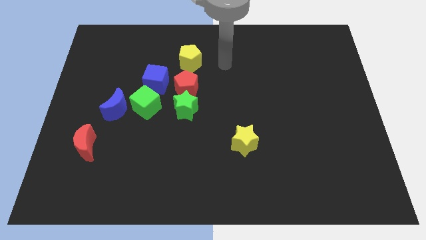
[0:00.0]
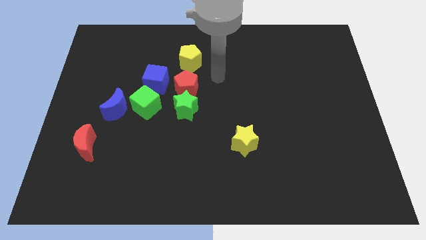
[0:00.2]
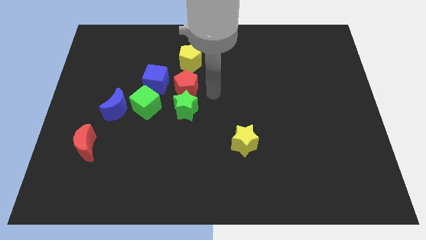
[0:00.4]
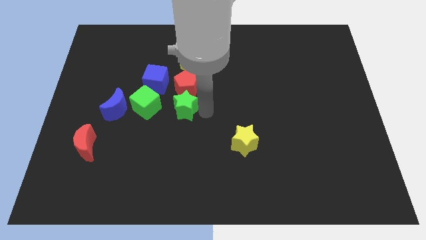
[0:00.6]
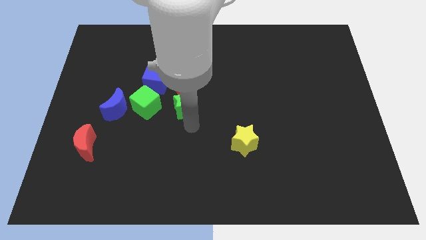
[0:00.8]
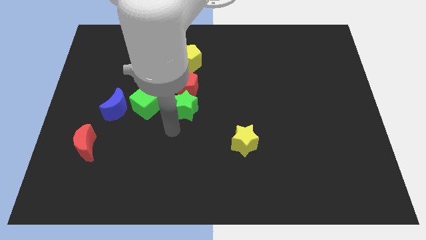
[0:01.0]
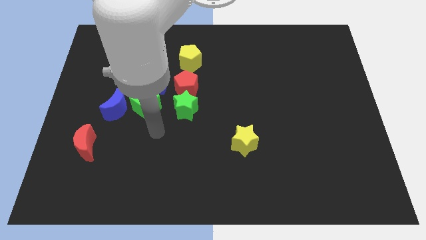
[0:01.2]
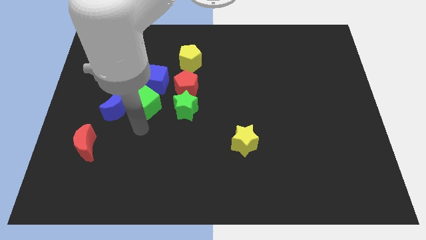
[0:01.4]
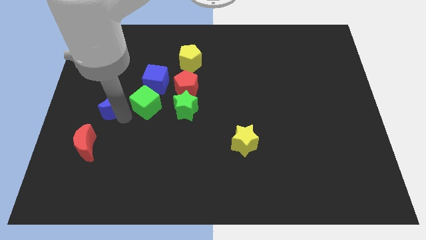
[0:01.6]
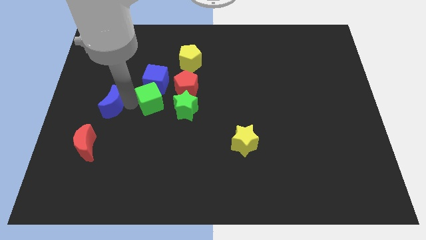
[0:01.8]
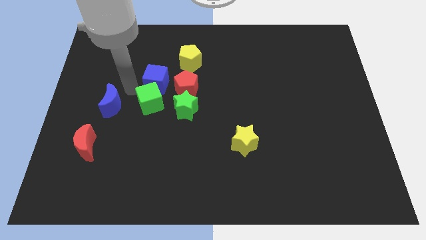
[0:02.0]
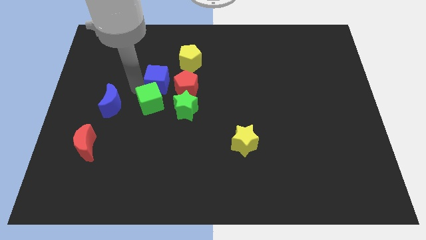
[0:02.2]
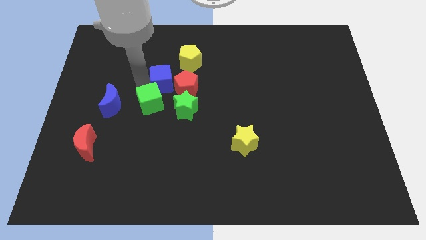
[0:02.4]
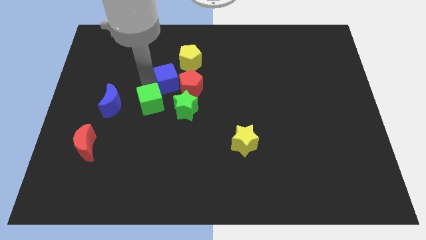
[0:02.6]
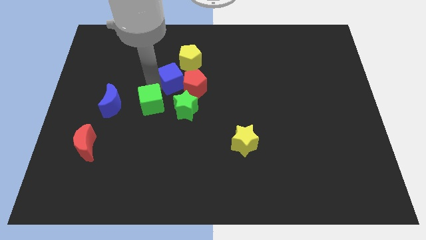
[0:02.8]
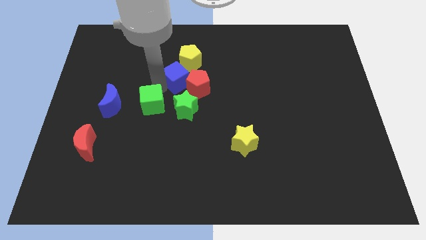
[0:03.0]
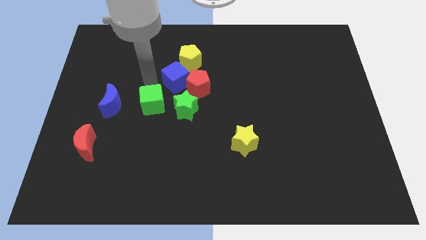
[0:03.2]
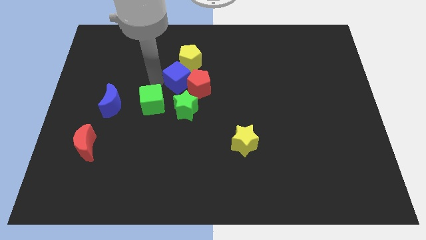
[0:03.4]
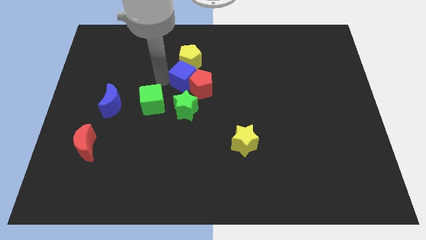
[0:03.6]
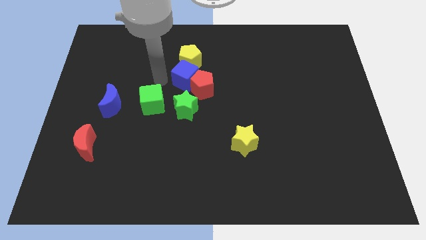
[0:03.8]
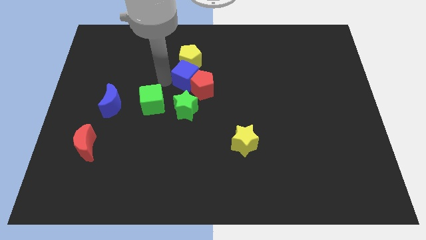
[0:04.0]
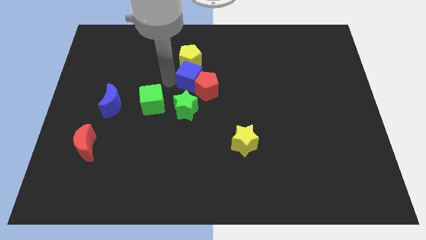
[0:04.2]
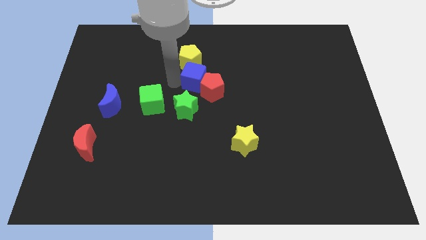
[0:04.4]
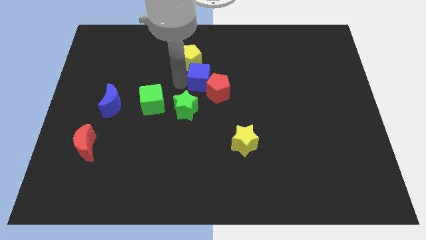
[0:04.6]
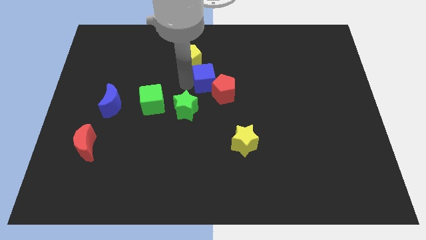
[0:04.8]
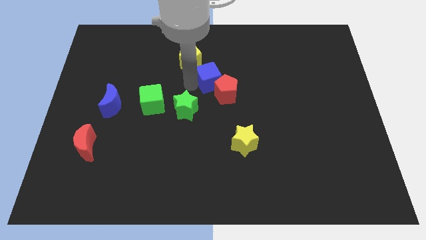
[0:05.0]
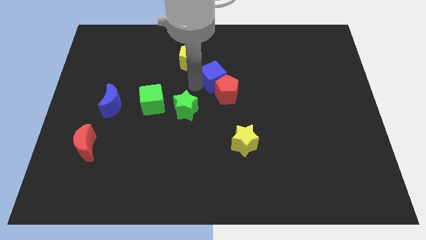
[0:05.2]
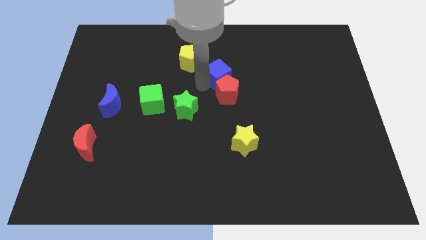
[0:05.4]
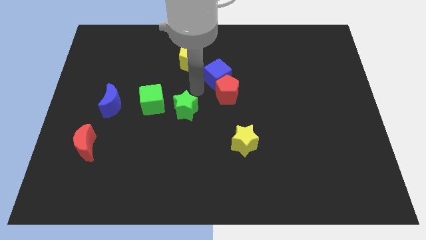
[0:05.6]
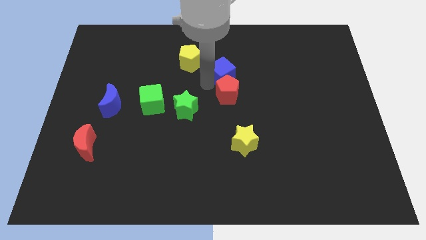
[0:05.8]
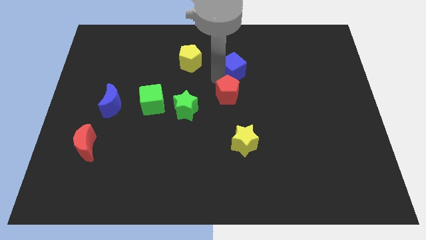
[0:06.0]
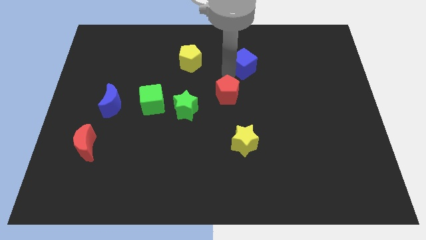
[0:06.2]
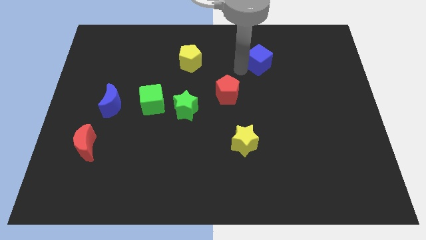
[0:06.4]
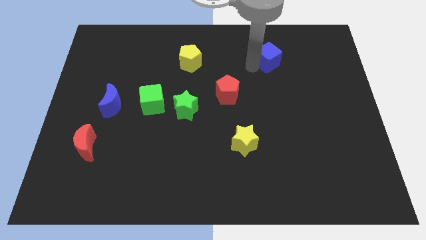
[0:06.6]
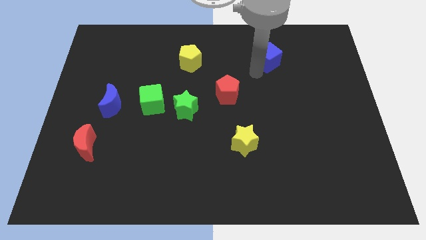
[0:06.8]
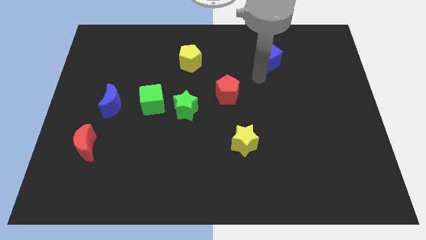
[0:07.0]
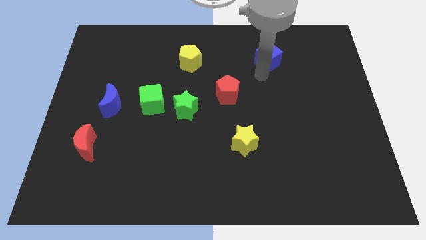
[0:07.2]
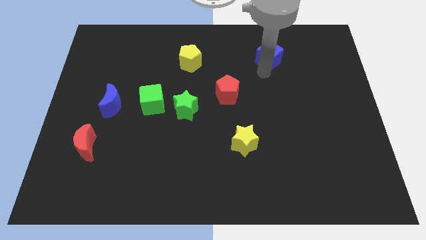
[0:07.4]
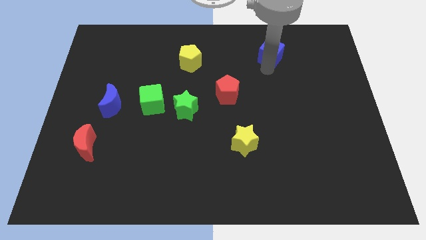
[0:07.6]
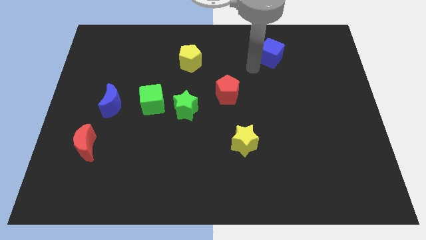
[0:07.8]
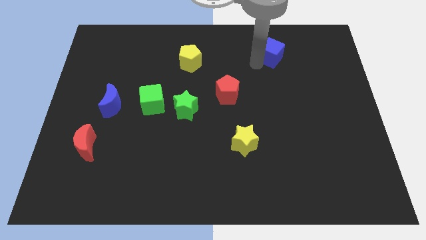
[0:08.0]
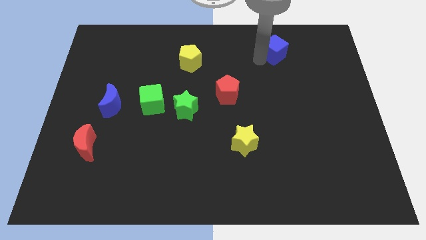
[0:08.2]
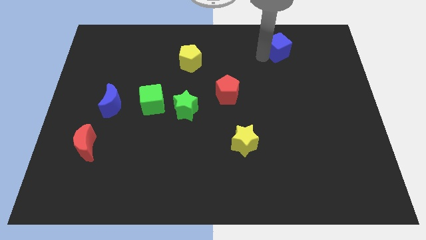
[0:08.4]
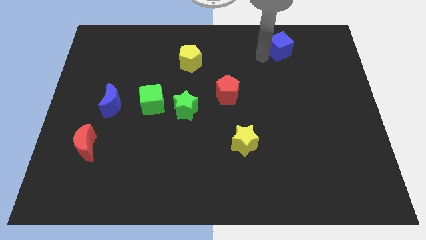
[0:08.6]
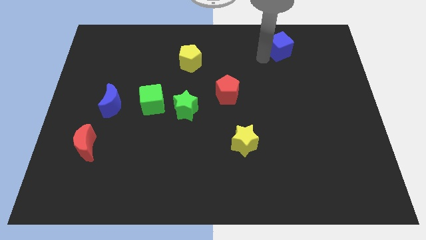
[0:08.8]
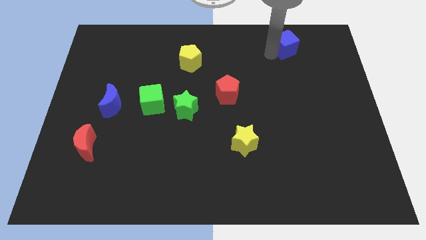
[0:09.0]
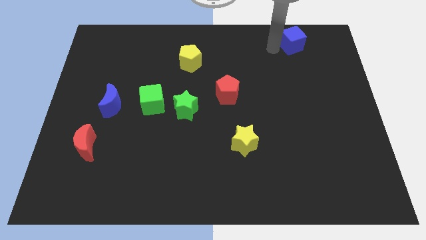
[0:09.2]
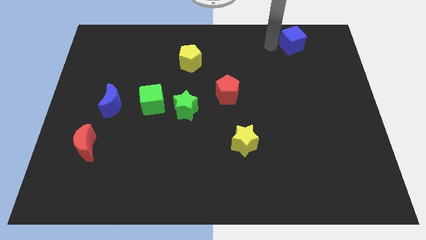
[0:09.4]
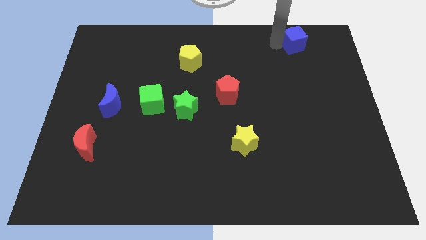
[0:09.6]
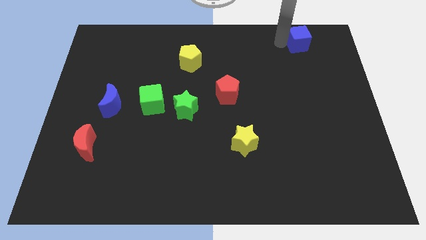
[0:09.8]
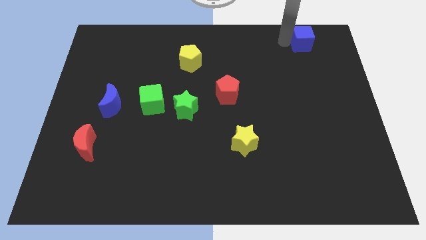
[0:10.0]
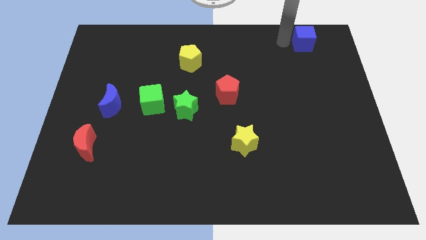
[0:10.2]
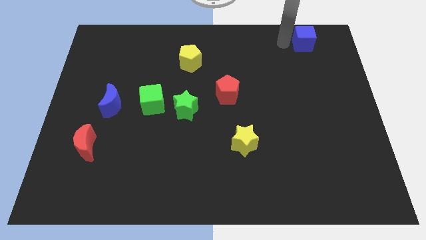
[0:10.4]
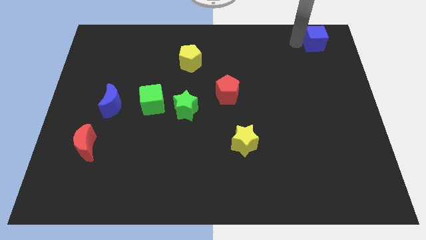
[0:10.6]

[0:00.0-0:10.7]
move the blue cube to the top right

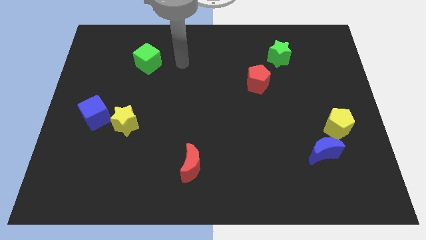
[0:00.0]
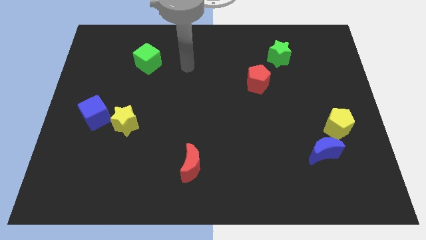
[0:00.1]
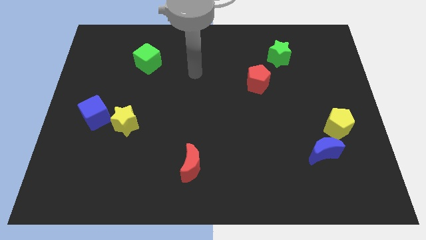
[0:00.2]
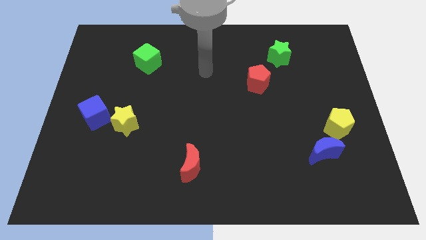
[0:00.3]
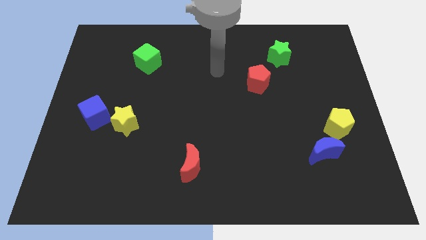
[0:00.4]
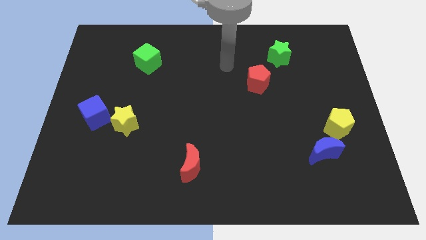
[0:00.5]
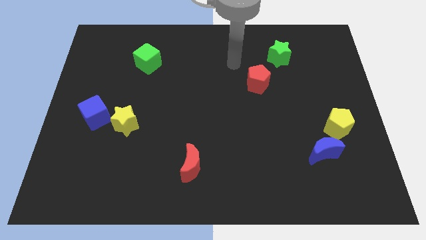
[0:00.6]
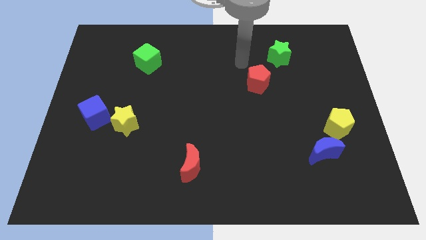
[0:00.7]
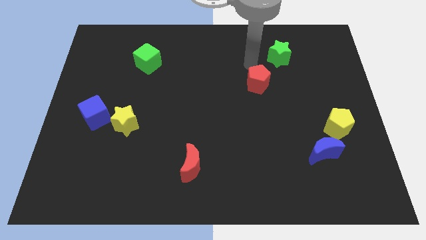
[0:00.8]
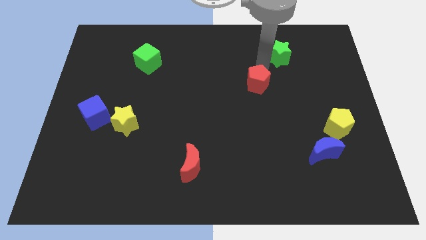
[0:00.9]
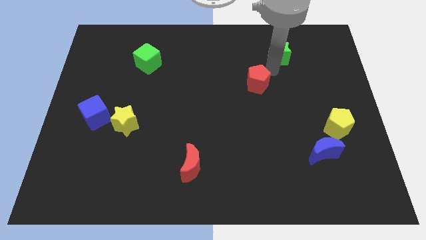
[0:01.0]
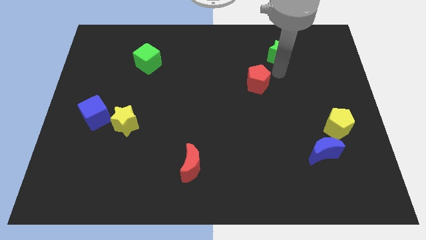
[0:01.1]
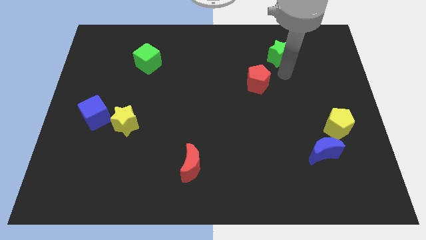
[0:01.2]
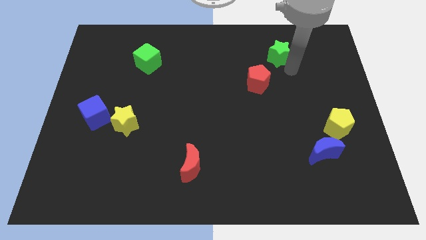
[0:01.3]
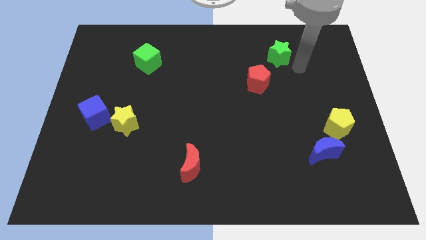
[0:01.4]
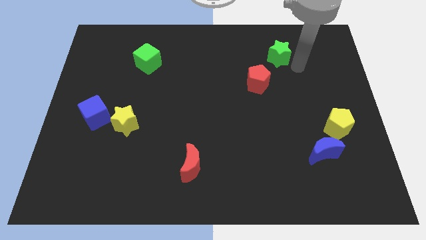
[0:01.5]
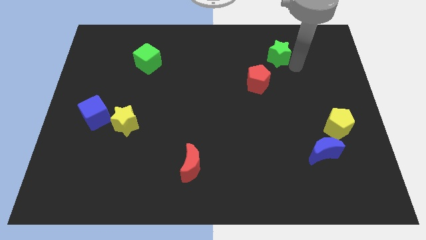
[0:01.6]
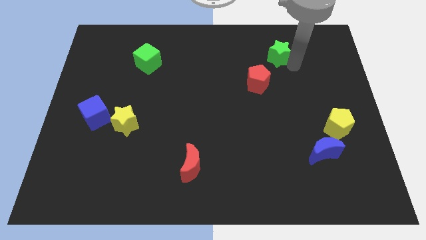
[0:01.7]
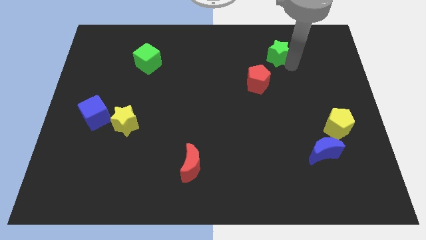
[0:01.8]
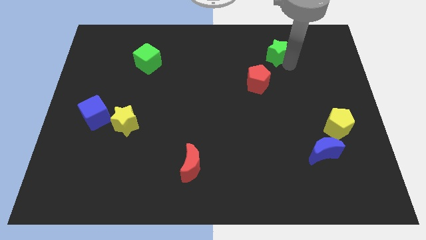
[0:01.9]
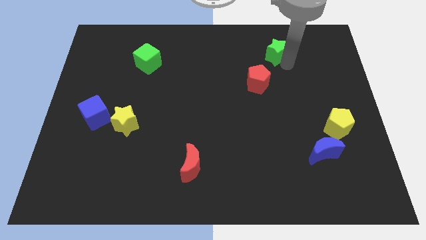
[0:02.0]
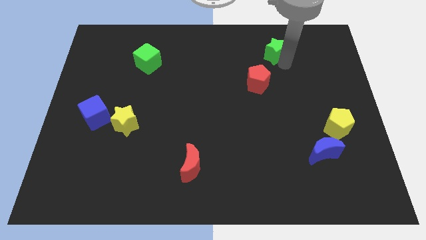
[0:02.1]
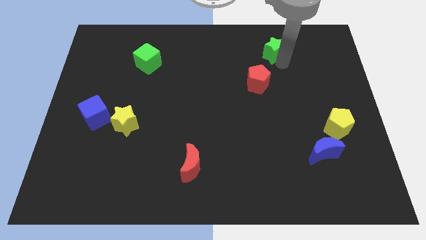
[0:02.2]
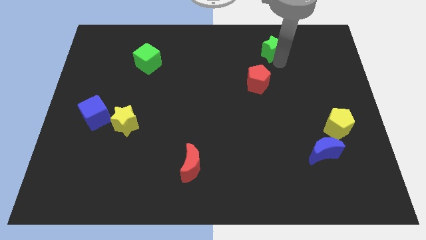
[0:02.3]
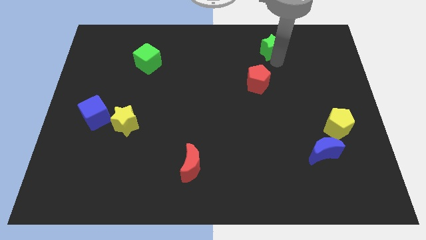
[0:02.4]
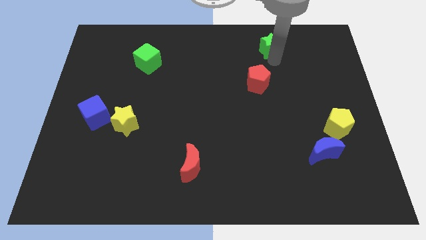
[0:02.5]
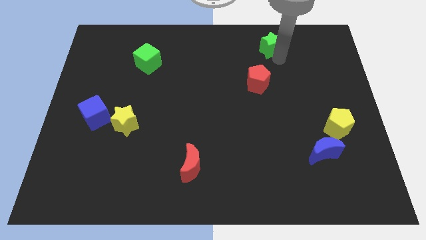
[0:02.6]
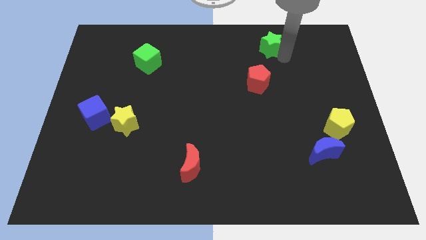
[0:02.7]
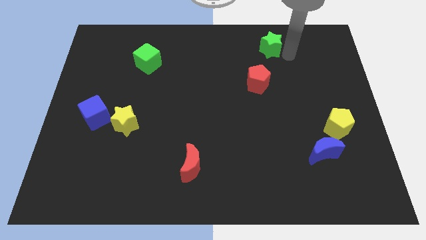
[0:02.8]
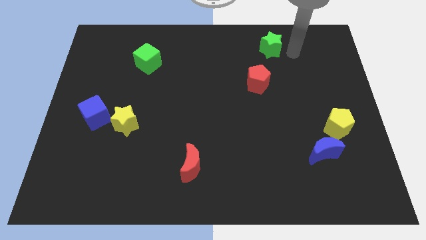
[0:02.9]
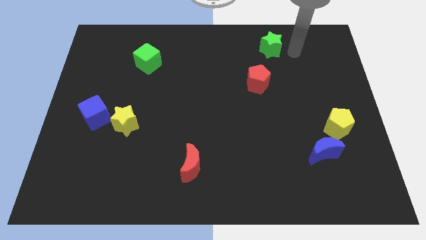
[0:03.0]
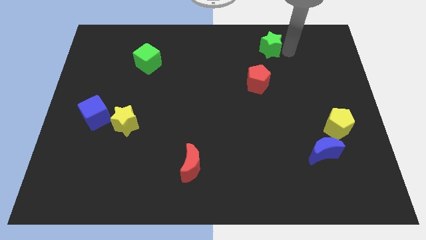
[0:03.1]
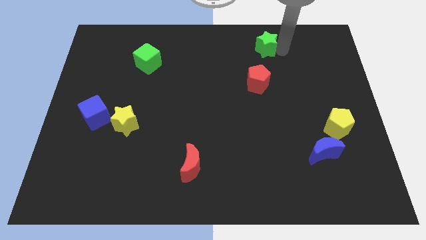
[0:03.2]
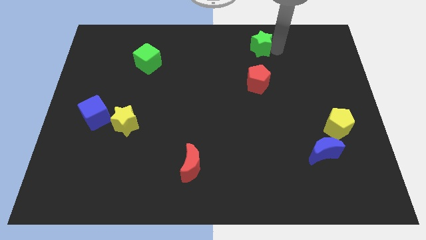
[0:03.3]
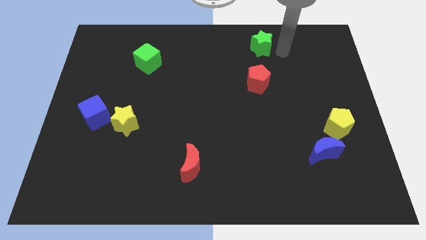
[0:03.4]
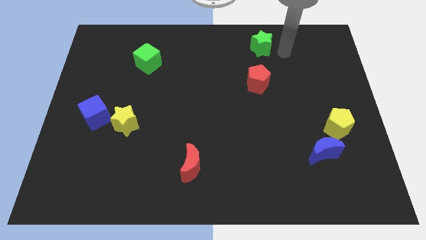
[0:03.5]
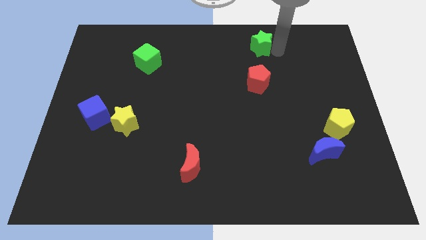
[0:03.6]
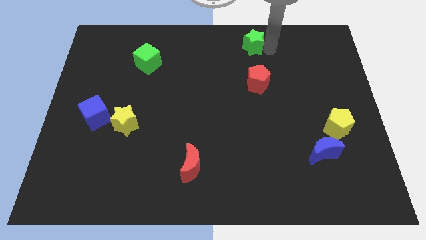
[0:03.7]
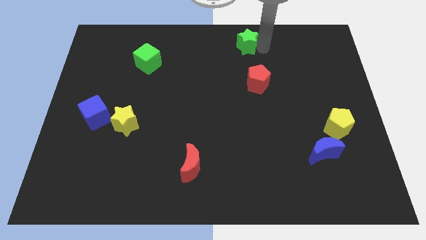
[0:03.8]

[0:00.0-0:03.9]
slide the green star to the top
